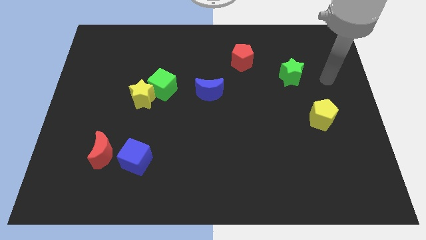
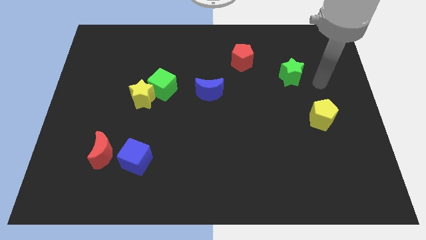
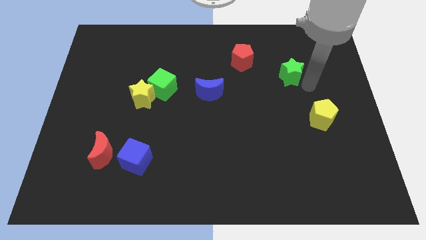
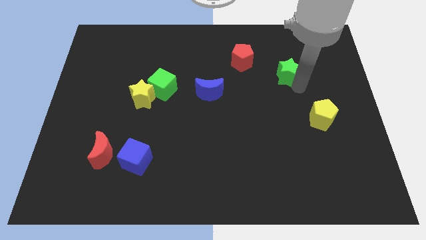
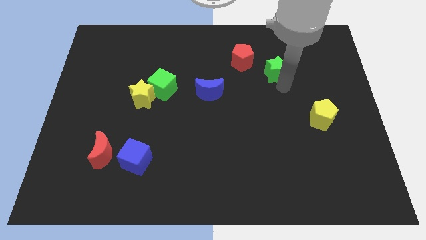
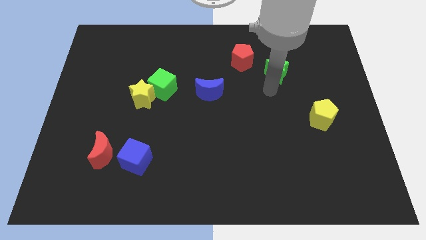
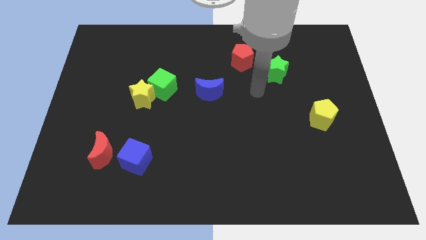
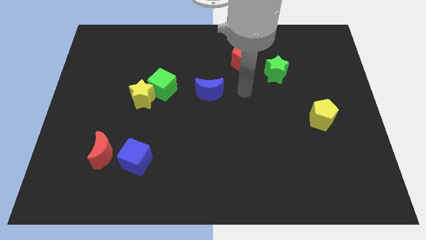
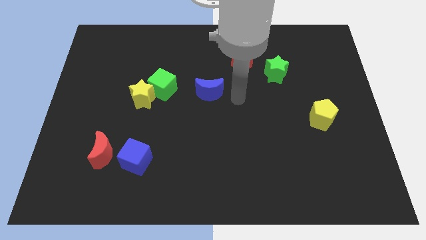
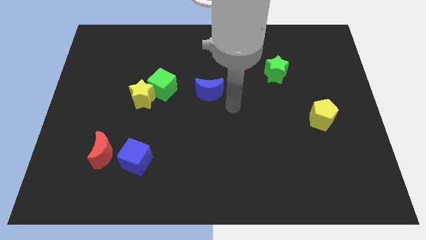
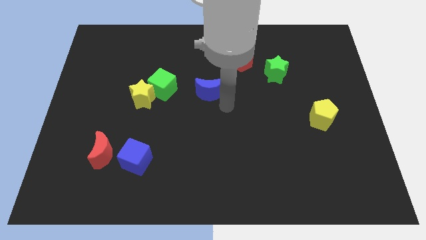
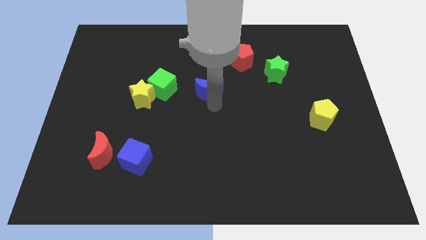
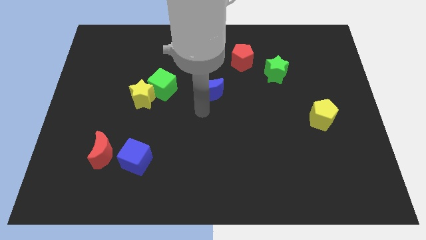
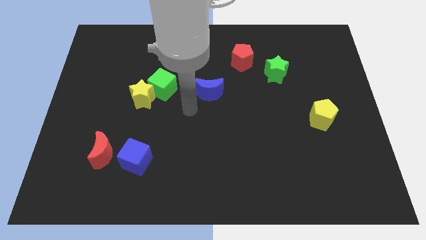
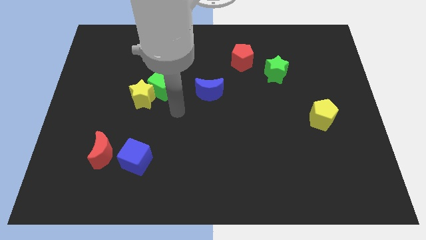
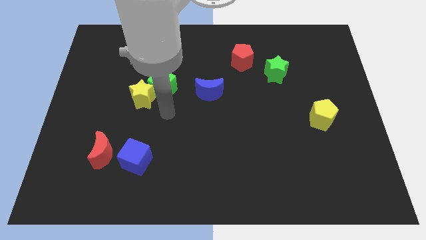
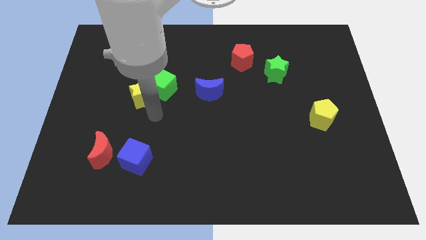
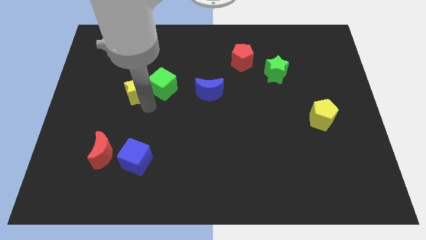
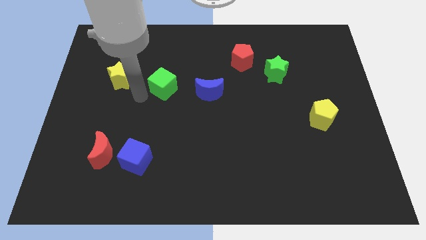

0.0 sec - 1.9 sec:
pull the green cube apart from the yellow star

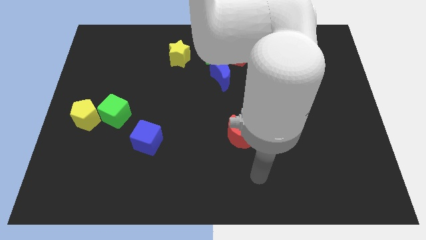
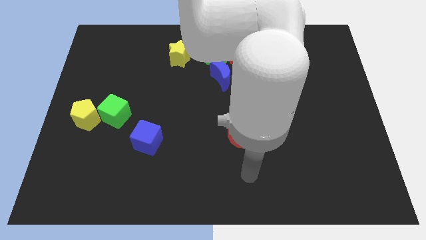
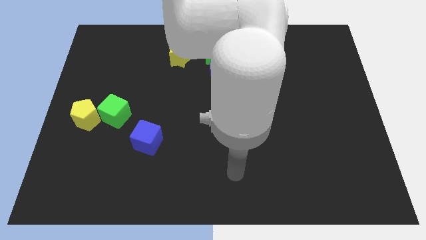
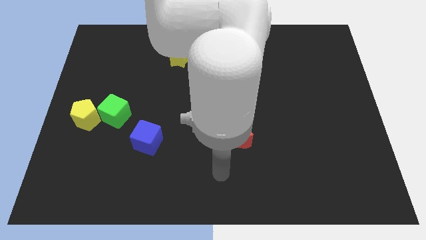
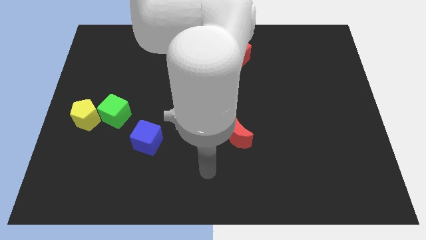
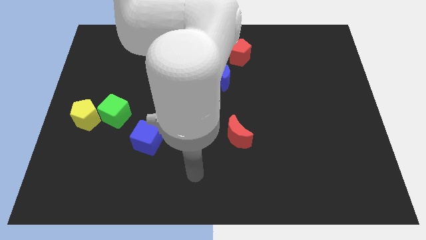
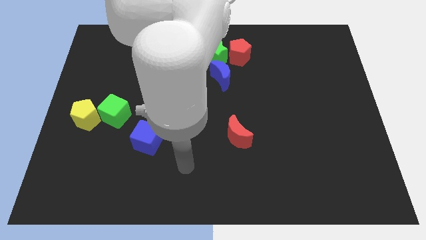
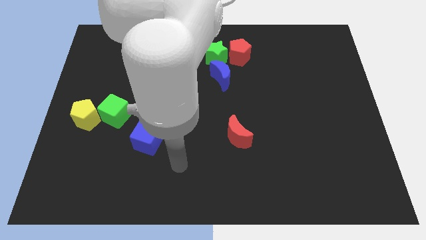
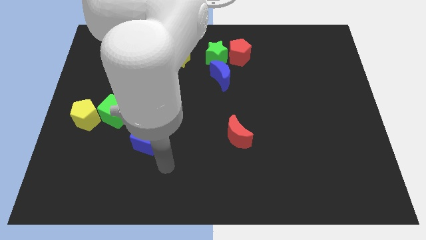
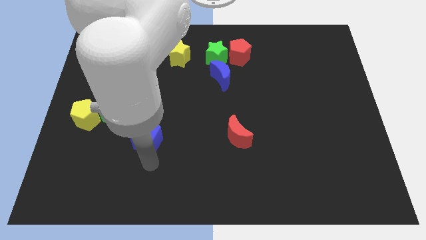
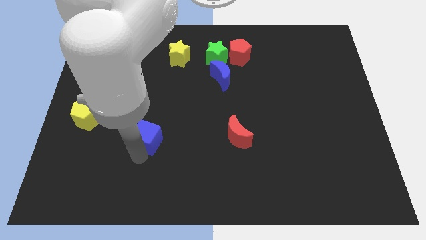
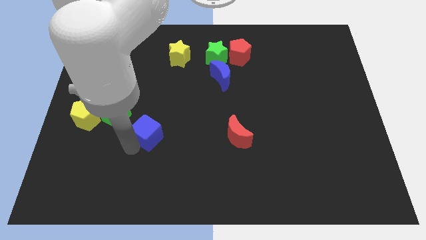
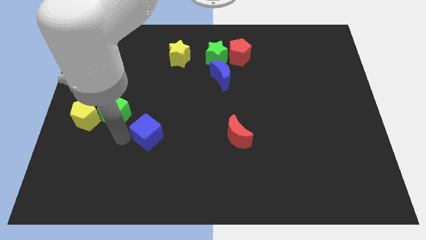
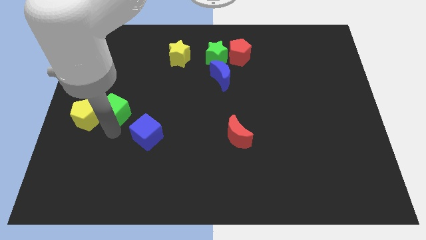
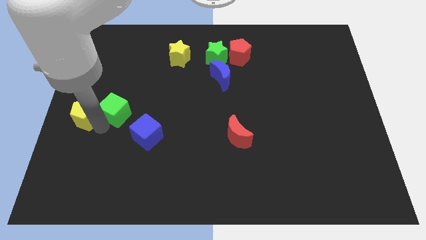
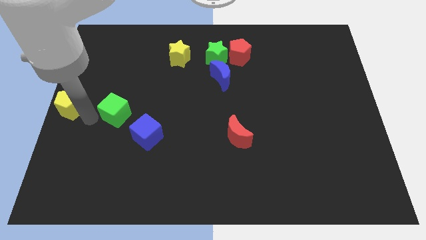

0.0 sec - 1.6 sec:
pull the green cube apart from the yellow pentagon

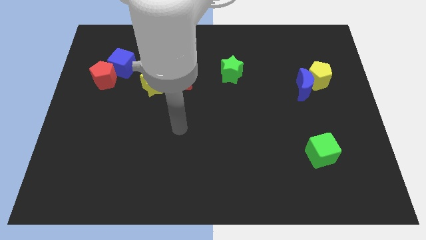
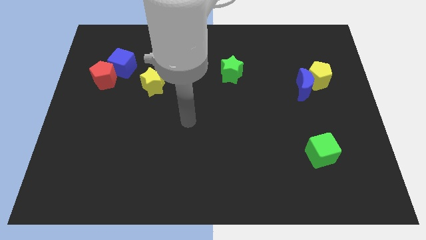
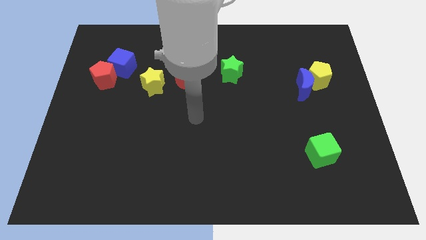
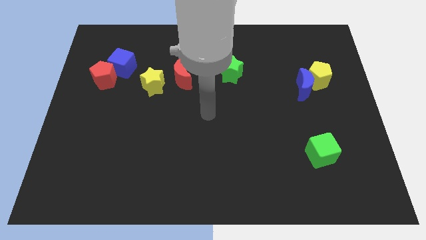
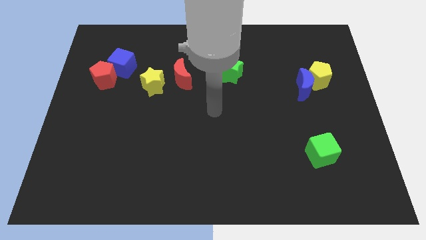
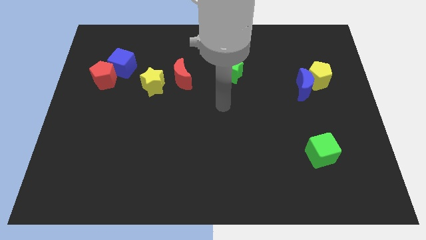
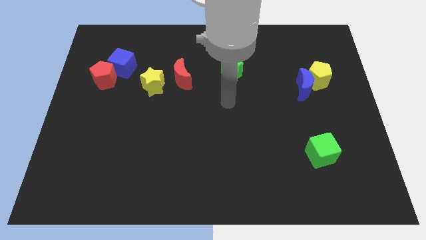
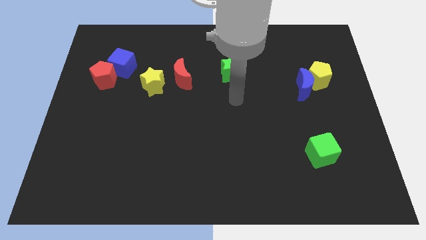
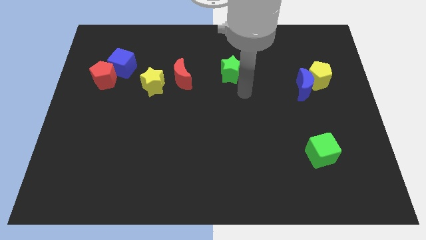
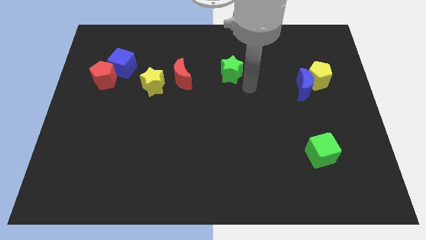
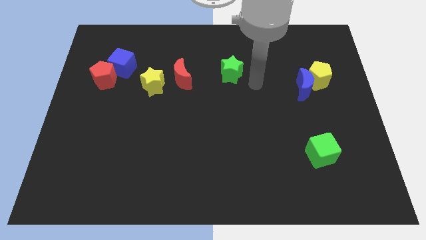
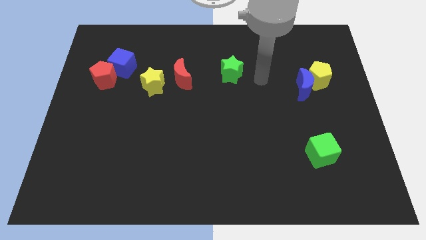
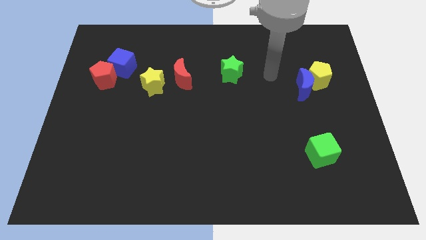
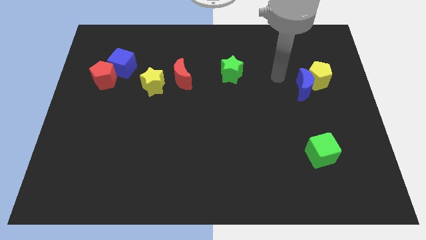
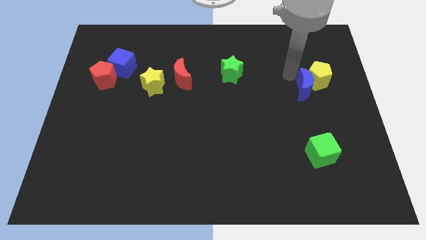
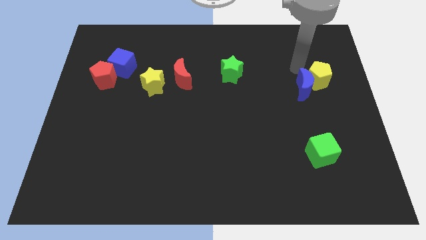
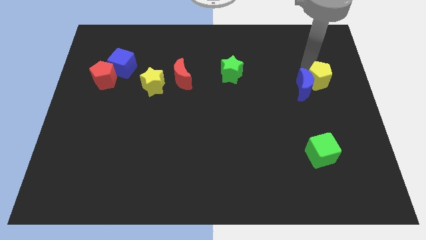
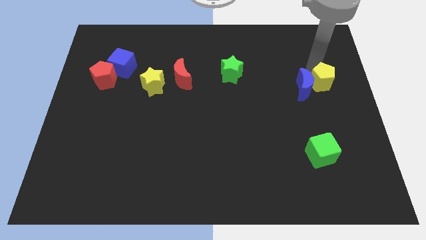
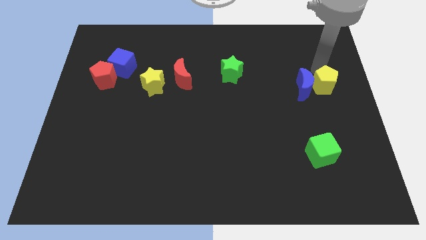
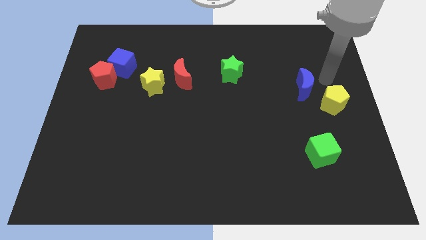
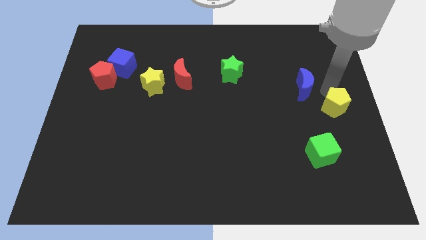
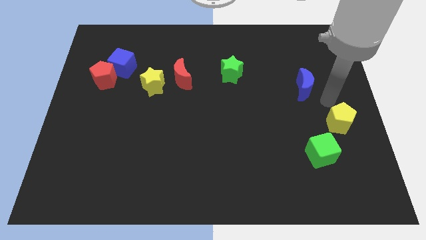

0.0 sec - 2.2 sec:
separate the blue moon from the yellow pentagon

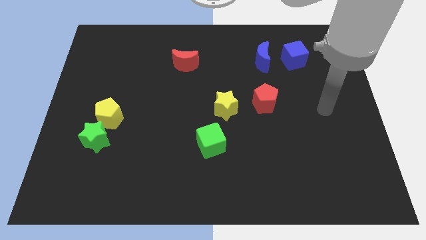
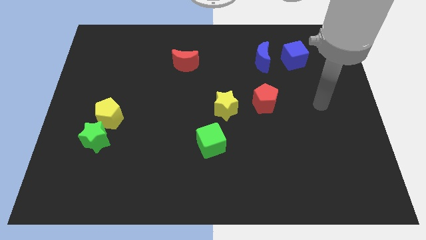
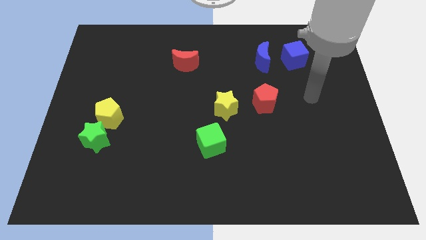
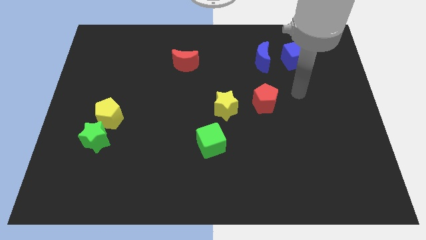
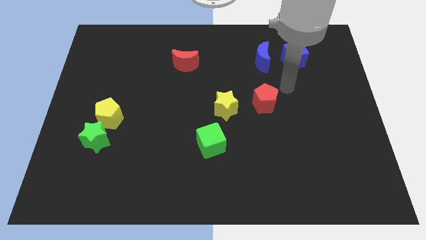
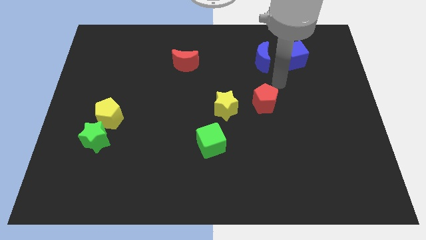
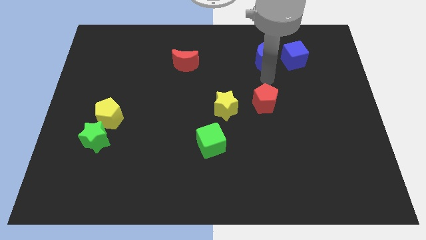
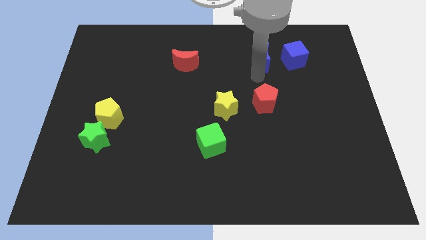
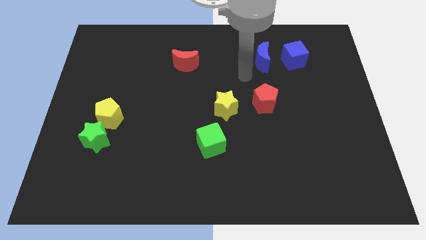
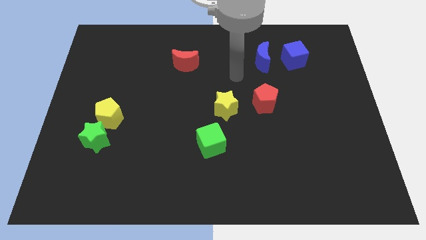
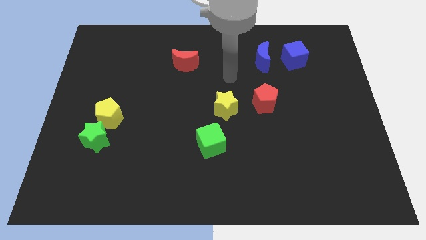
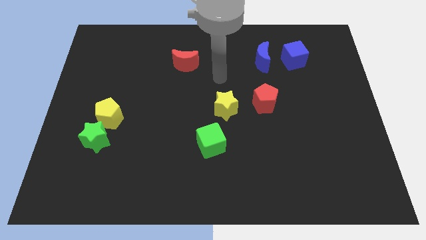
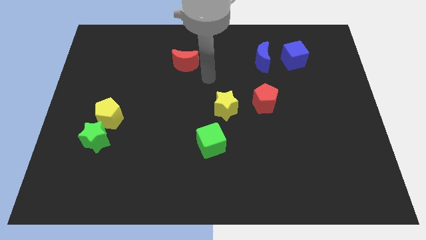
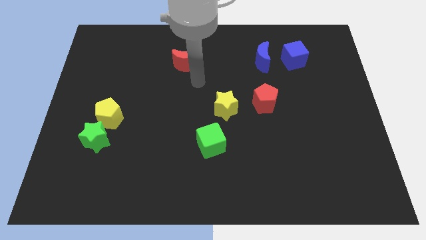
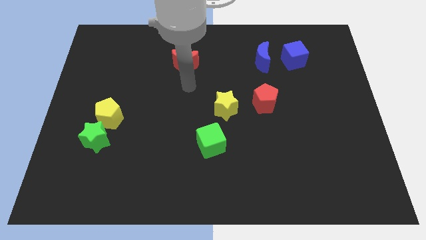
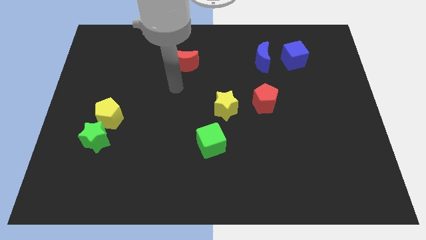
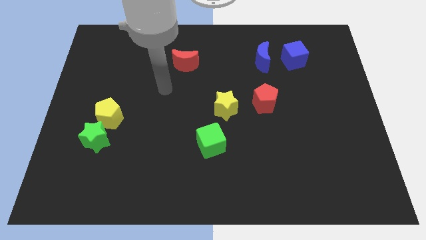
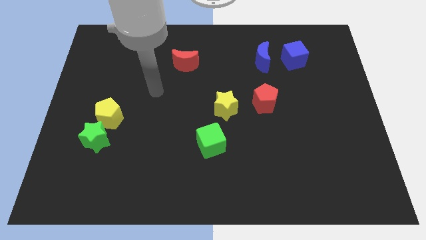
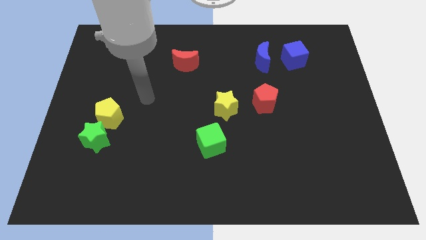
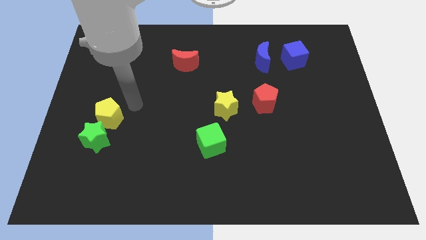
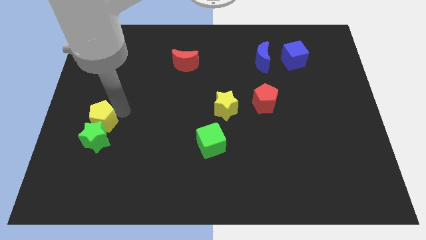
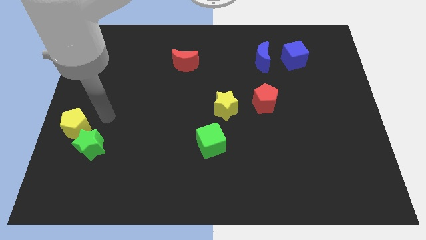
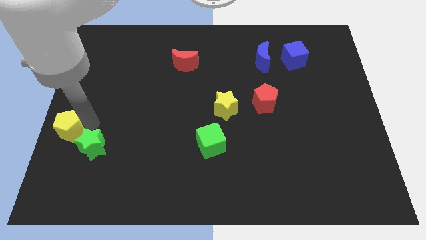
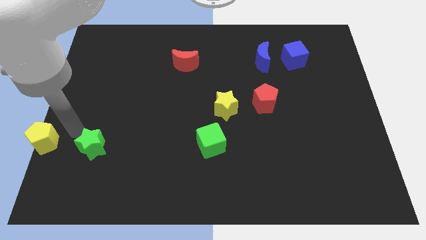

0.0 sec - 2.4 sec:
pull the green star apart from the yellow pentagon

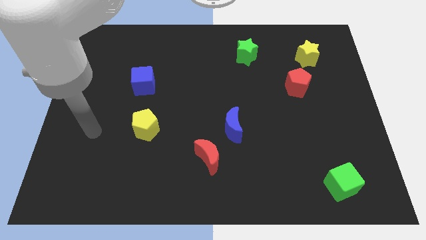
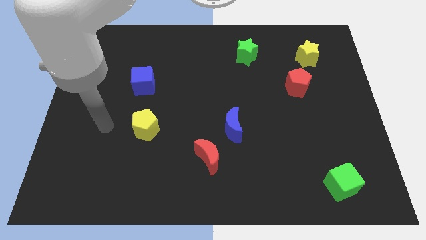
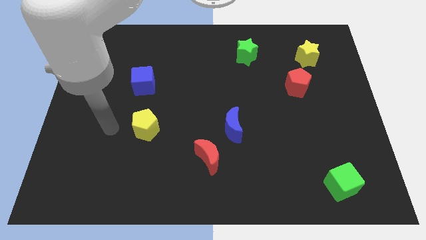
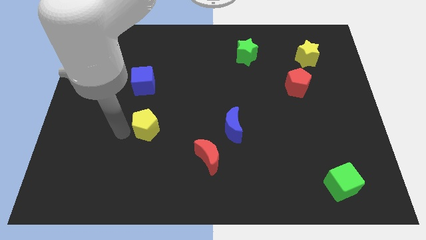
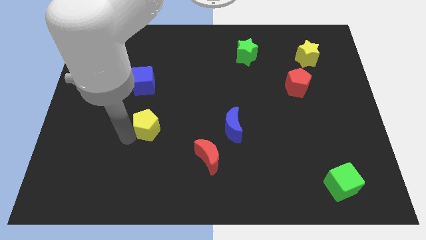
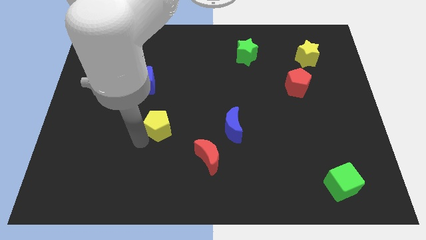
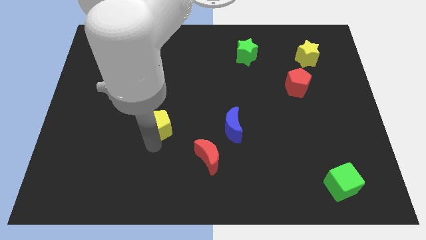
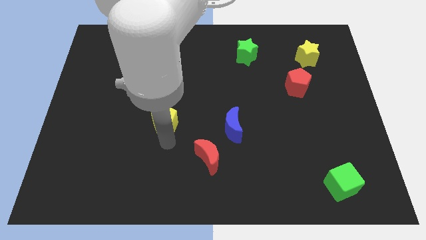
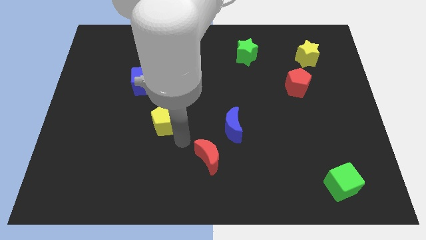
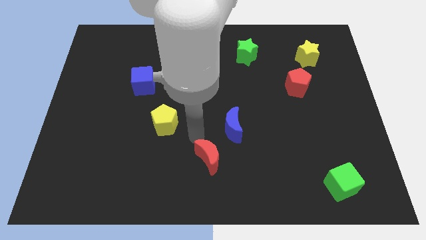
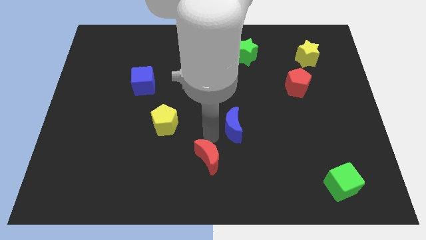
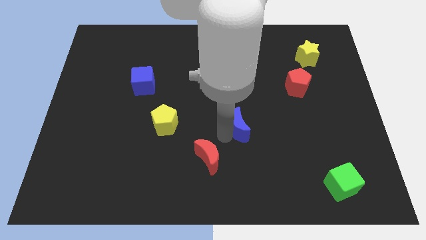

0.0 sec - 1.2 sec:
pull the red moon apart from the blue moon
